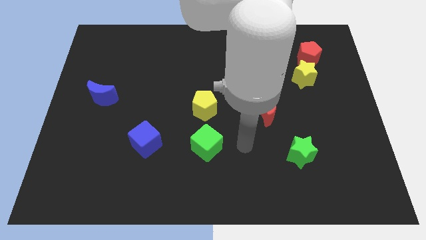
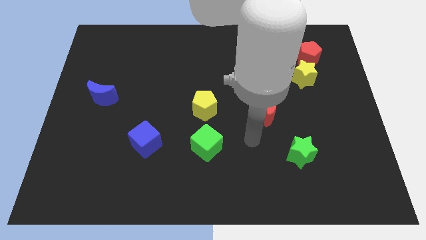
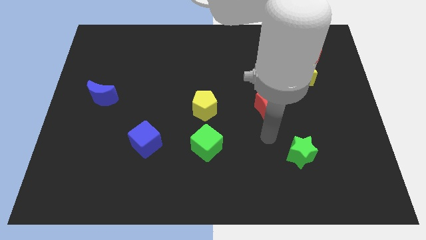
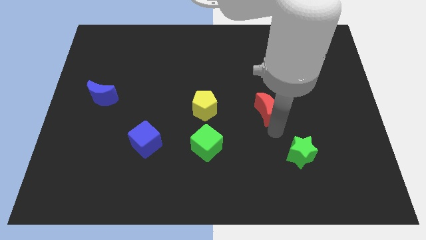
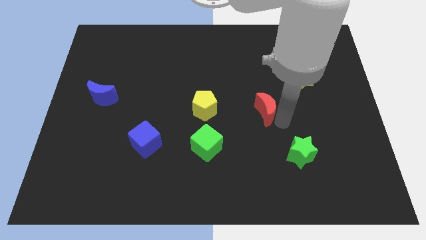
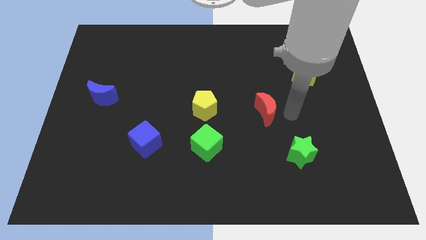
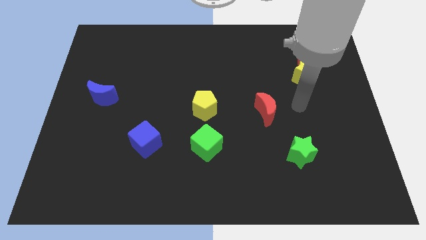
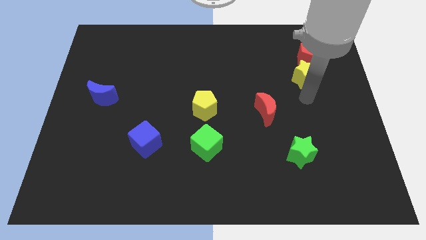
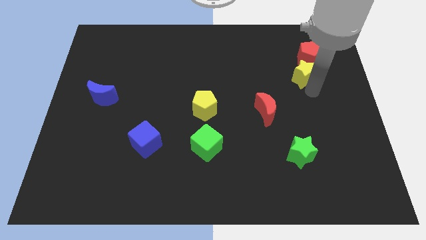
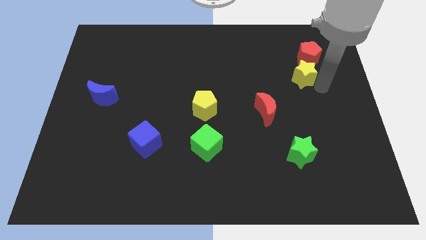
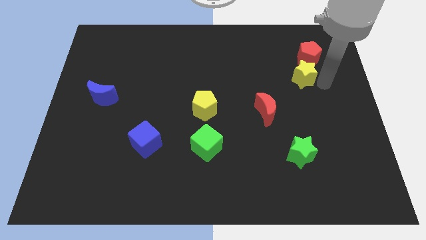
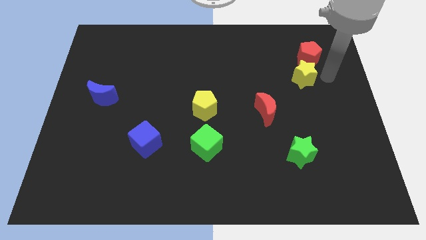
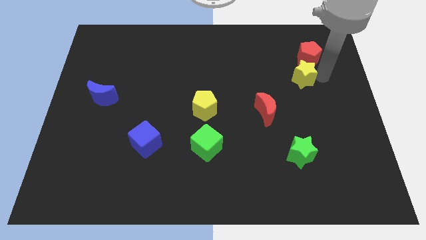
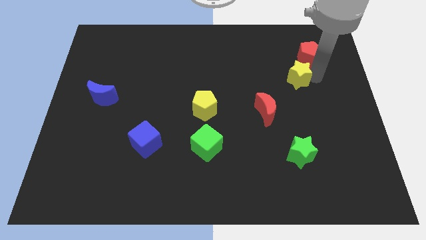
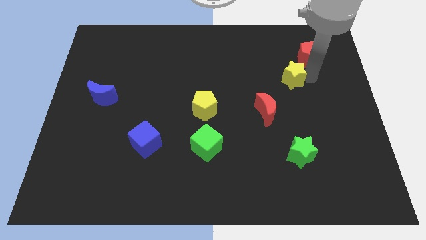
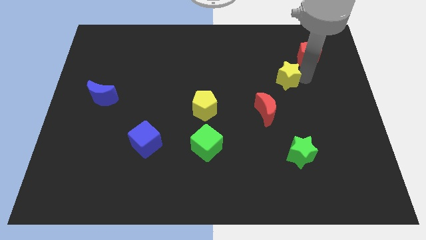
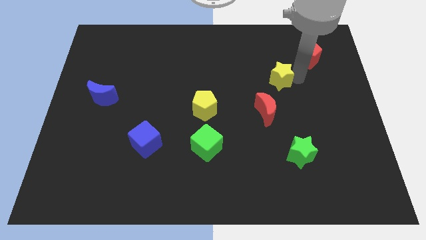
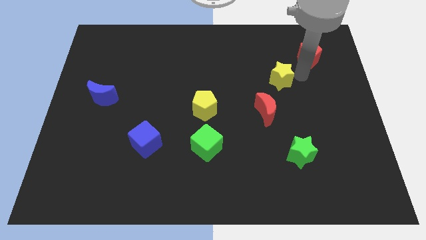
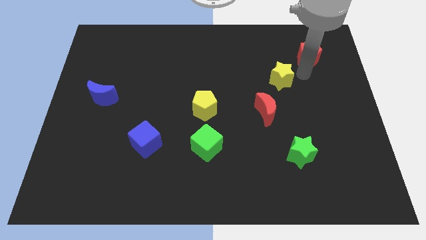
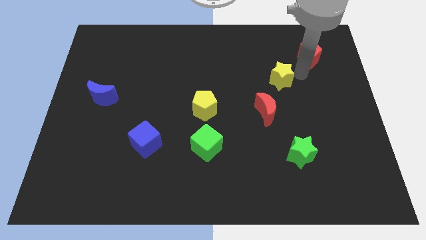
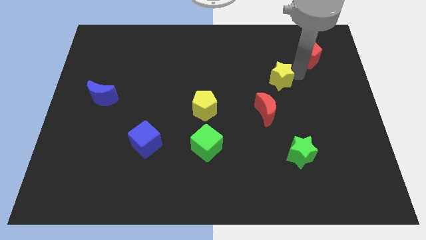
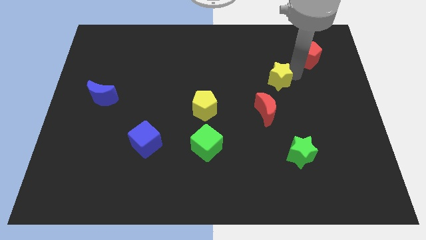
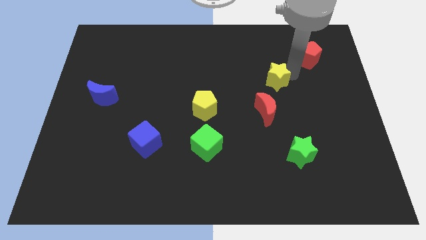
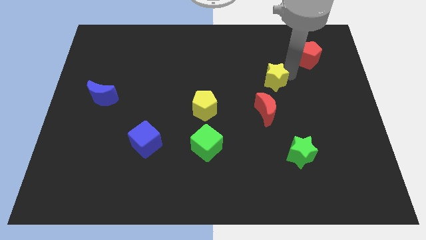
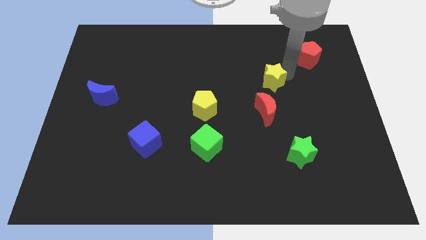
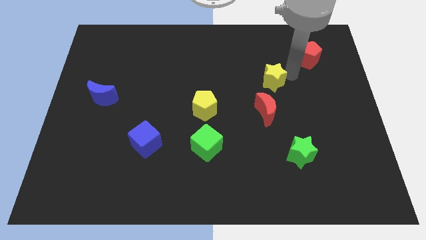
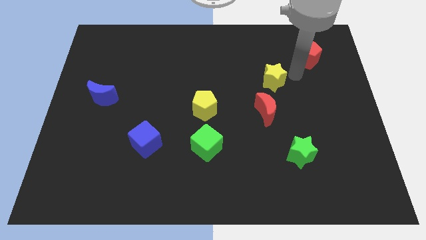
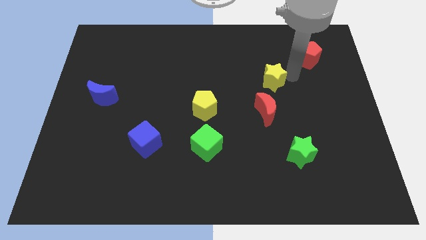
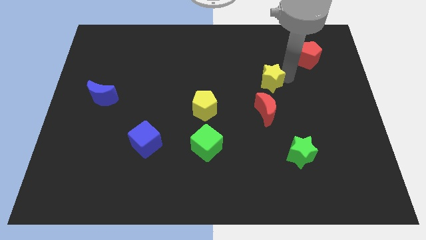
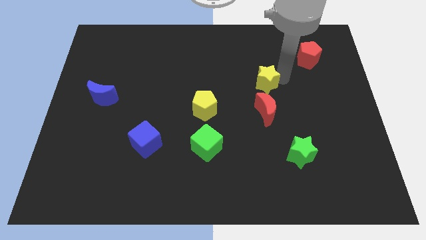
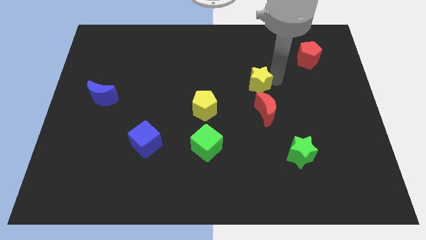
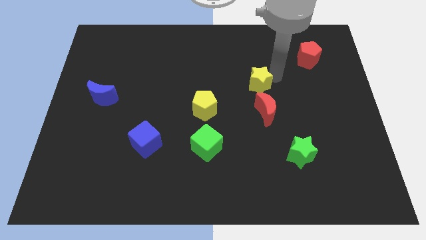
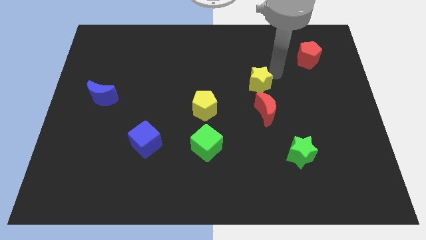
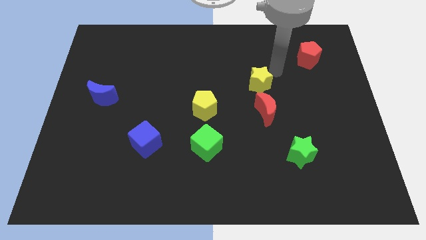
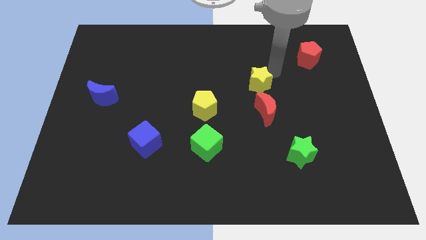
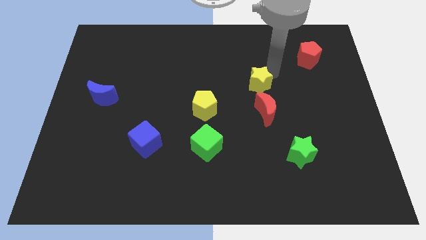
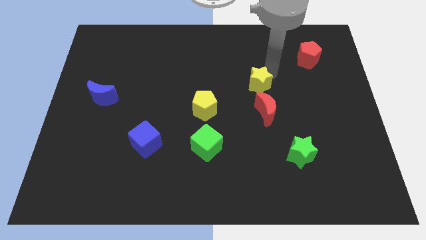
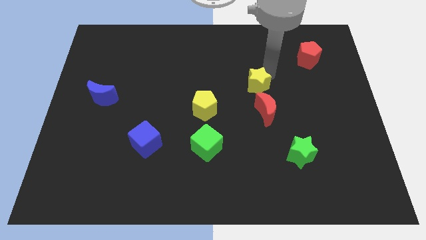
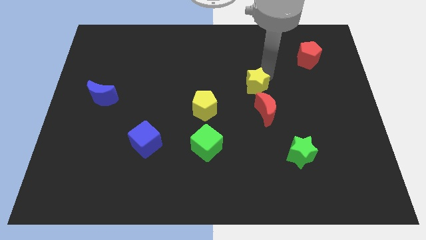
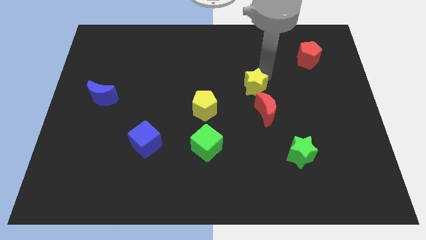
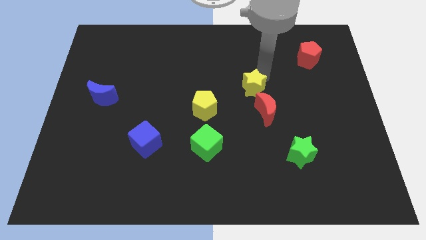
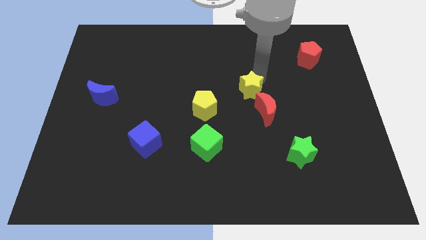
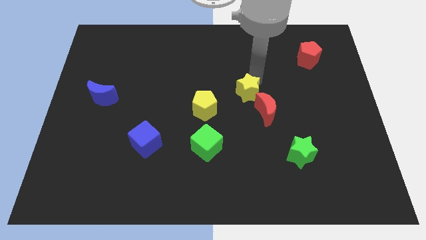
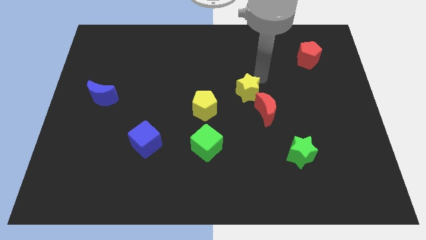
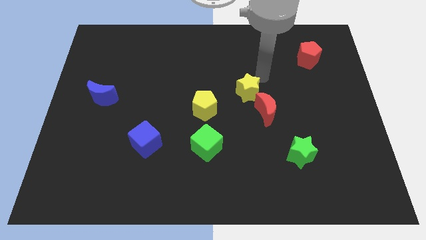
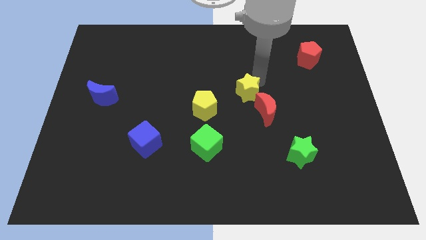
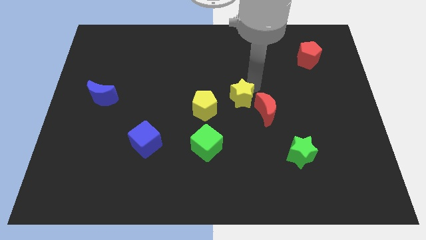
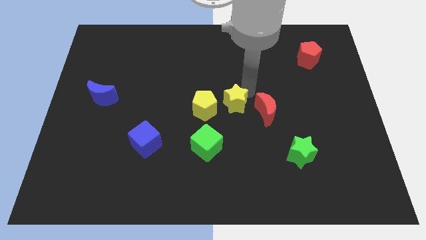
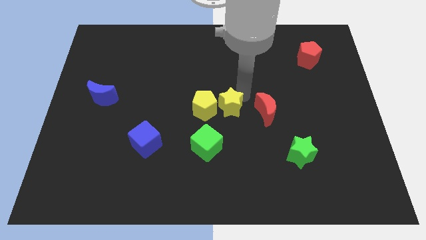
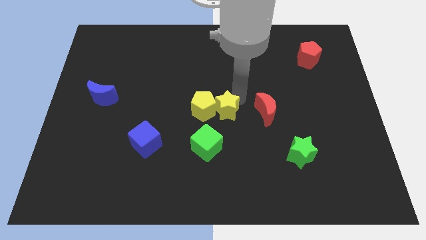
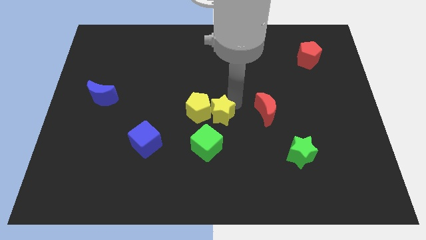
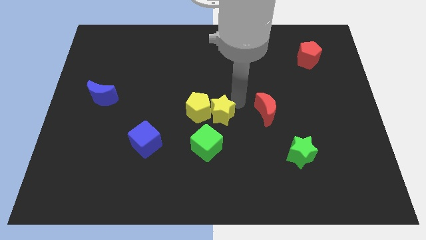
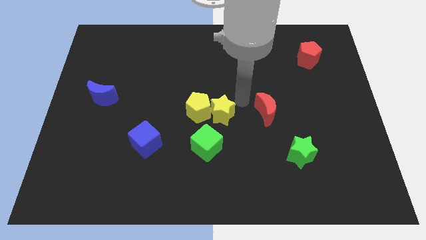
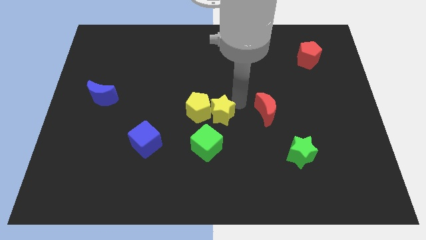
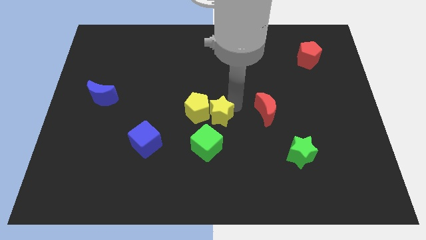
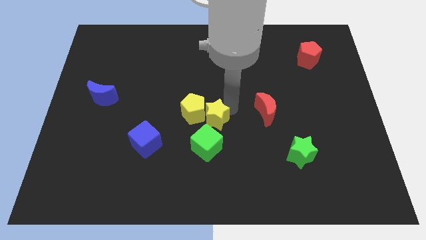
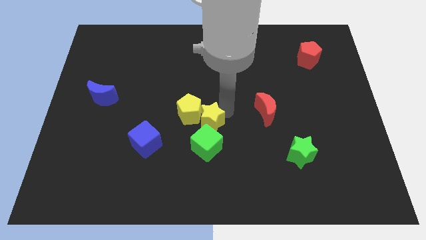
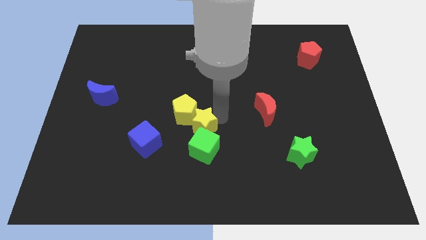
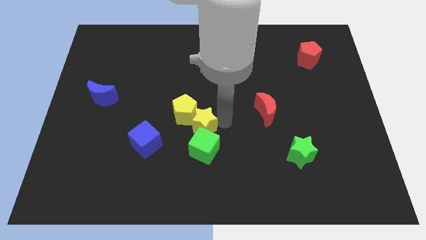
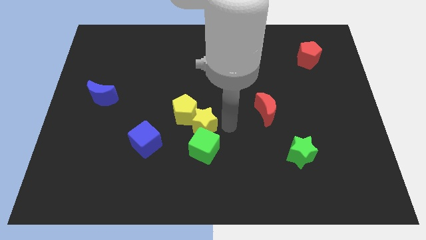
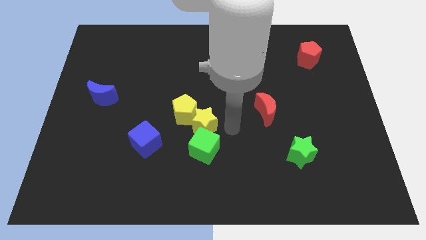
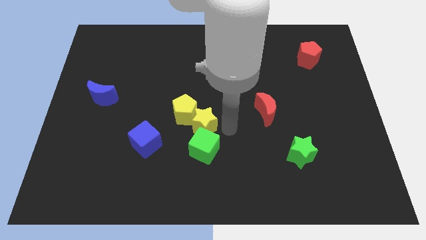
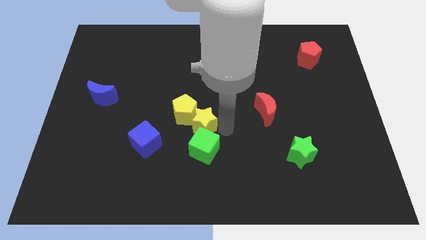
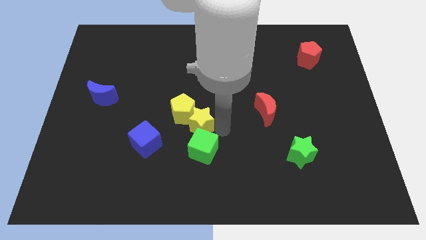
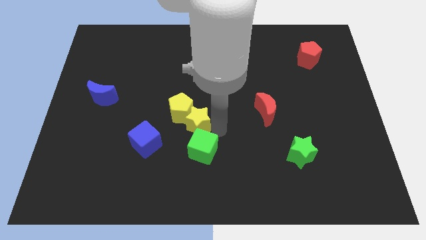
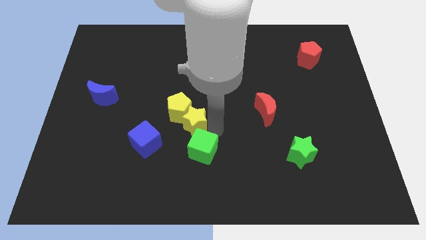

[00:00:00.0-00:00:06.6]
push the yellow star diagonally up and to the right of the blue cube
